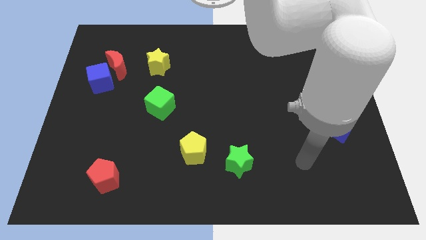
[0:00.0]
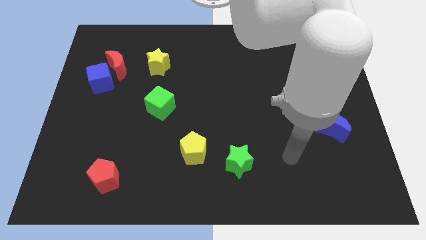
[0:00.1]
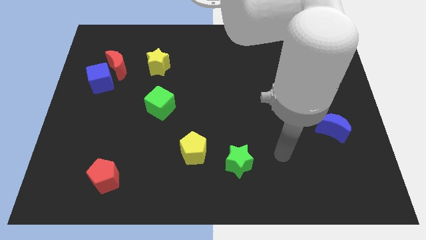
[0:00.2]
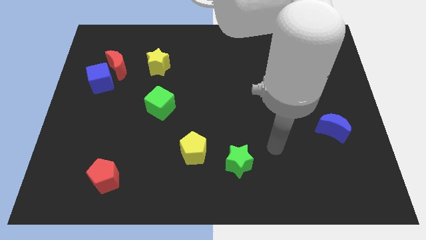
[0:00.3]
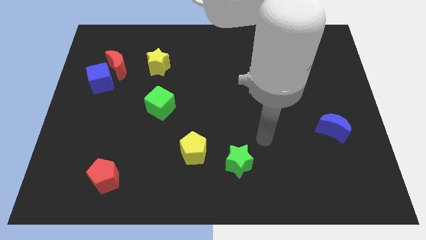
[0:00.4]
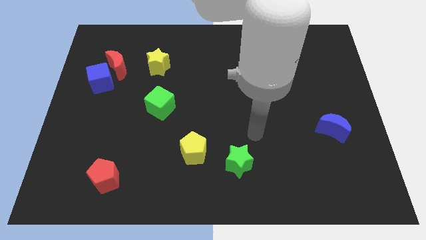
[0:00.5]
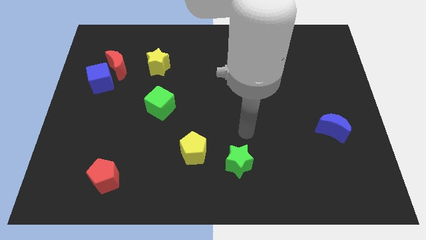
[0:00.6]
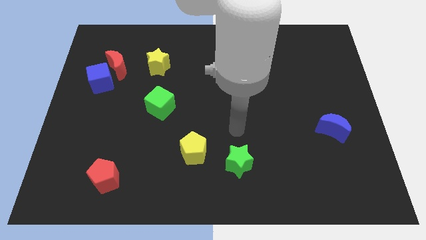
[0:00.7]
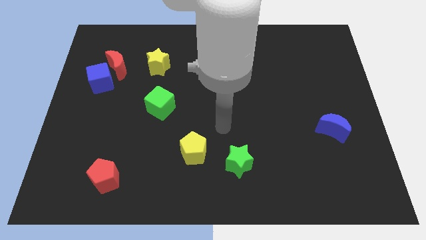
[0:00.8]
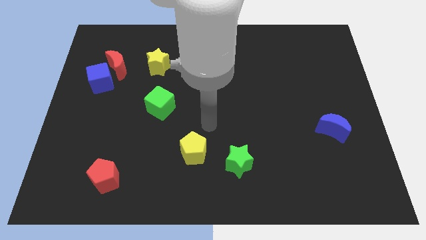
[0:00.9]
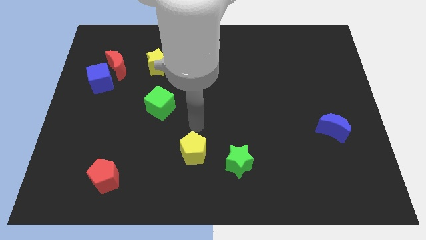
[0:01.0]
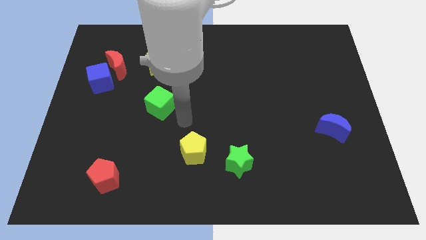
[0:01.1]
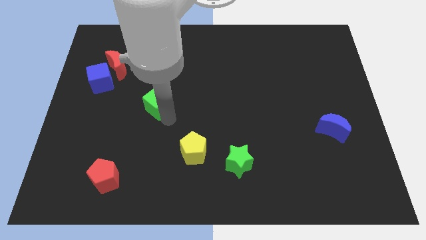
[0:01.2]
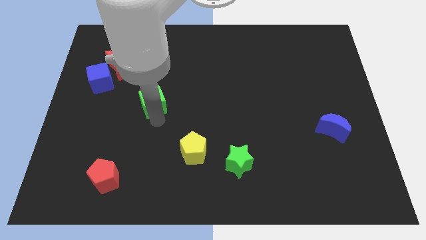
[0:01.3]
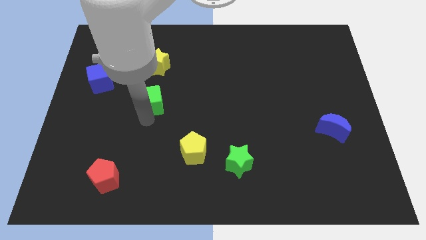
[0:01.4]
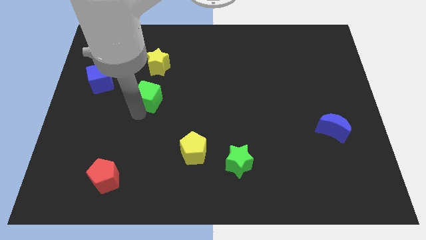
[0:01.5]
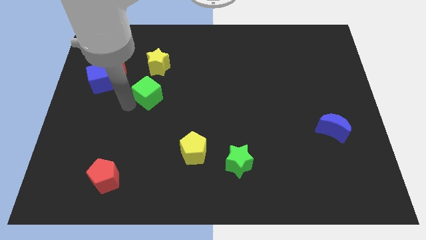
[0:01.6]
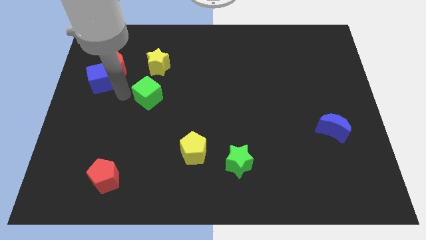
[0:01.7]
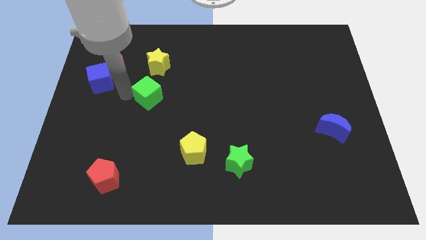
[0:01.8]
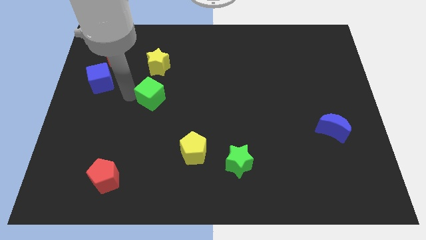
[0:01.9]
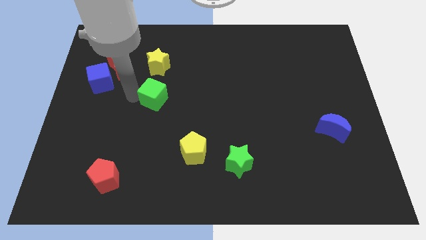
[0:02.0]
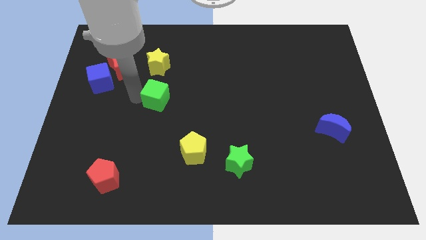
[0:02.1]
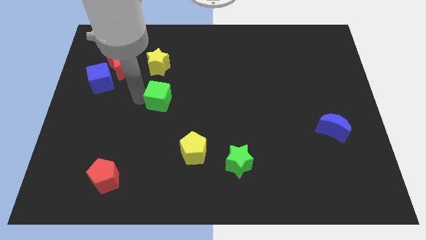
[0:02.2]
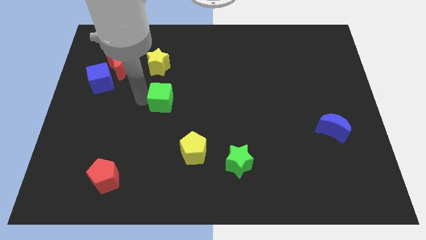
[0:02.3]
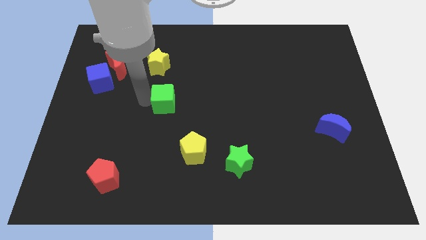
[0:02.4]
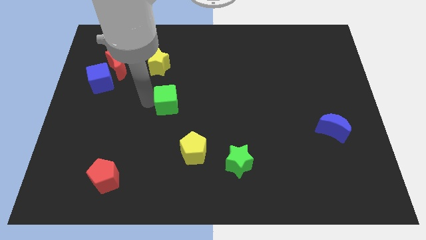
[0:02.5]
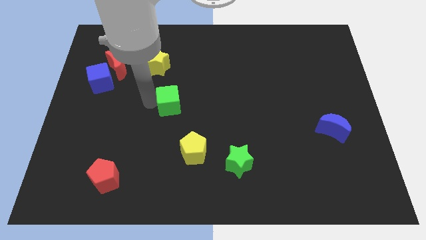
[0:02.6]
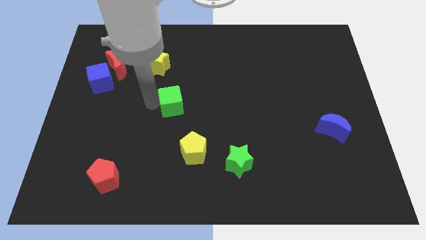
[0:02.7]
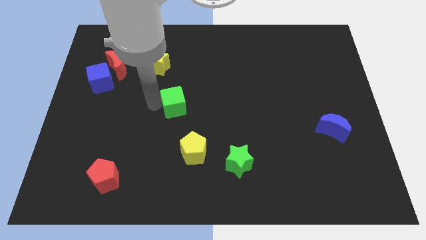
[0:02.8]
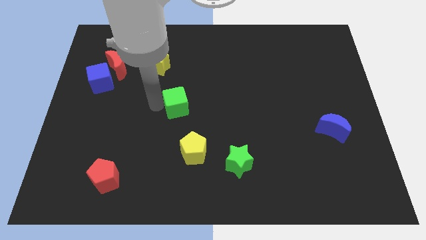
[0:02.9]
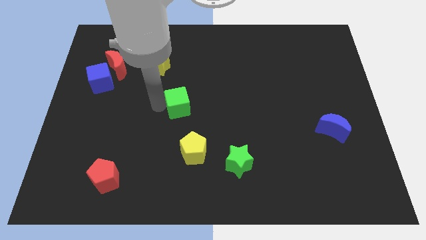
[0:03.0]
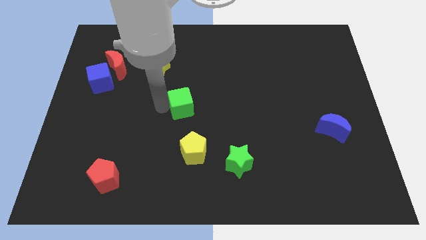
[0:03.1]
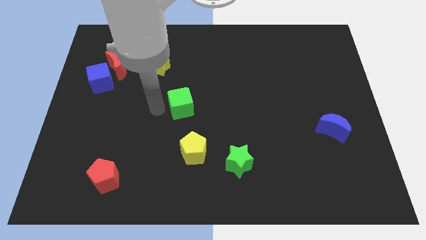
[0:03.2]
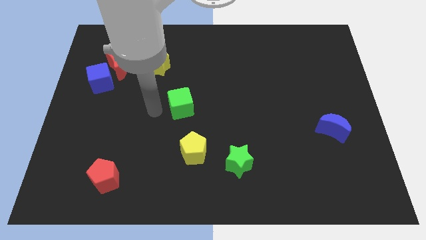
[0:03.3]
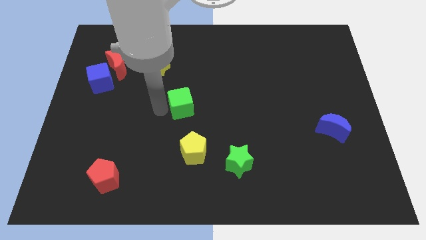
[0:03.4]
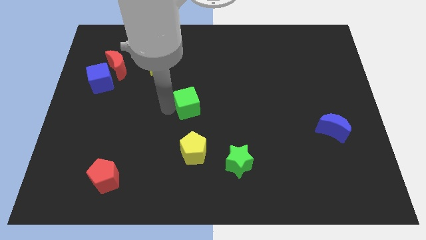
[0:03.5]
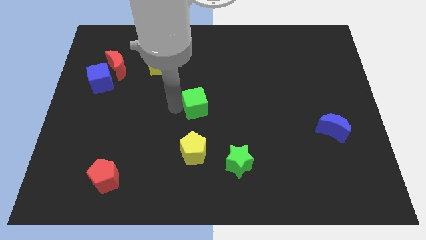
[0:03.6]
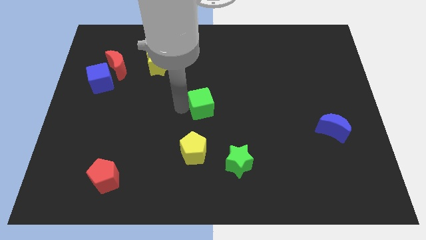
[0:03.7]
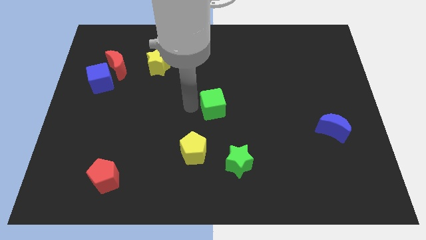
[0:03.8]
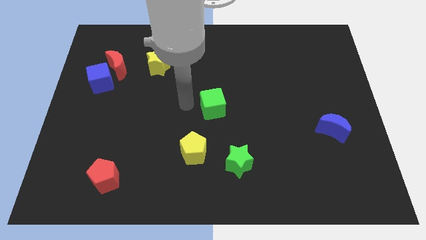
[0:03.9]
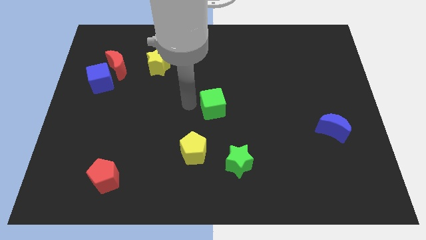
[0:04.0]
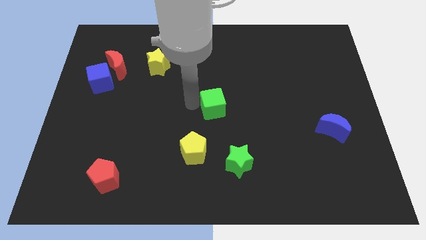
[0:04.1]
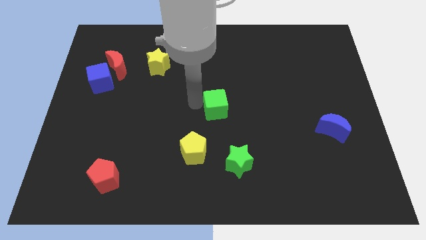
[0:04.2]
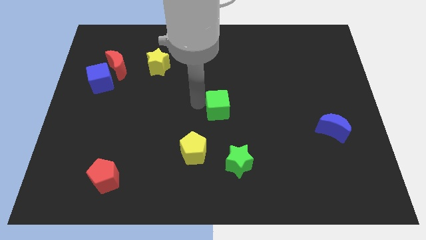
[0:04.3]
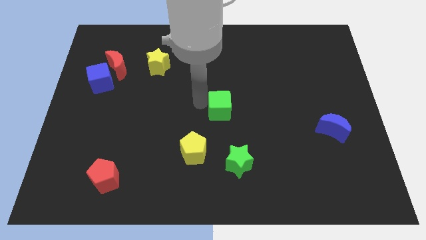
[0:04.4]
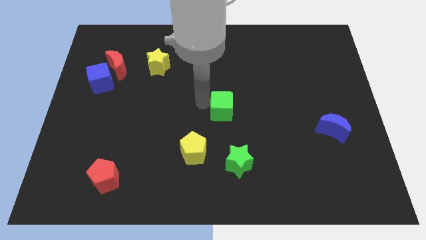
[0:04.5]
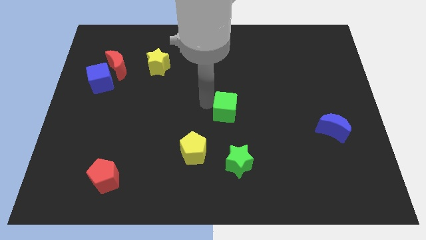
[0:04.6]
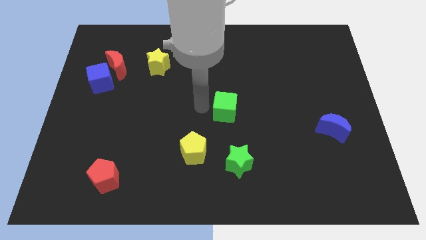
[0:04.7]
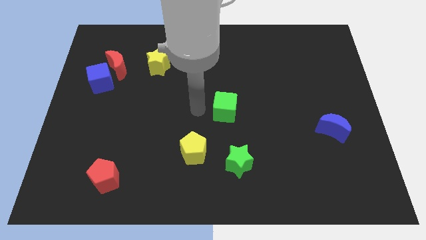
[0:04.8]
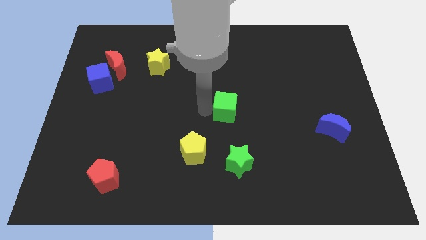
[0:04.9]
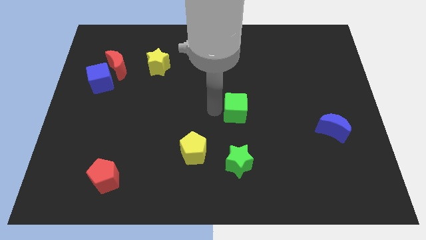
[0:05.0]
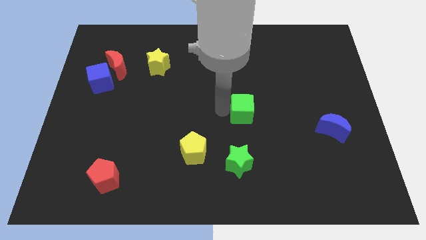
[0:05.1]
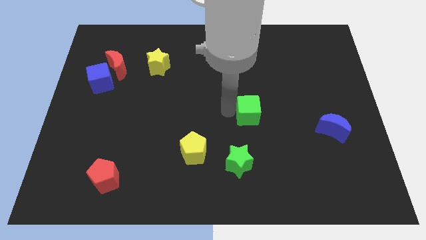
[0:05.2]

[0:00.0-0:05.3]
move the green cube to the right

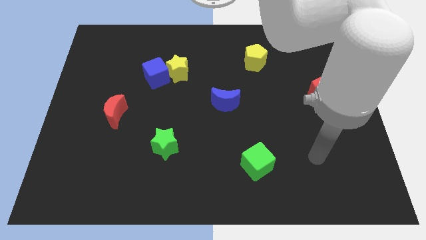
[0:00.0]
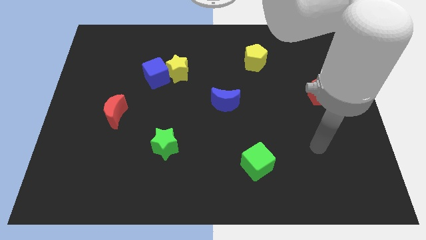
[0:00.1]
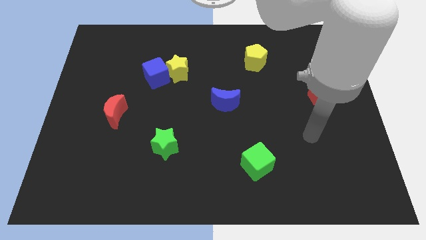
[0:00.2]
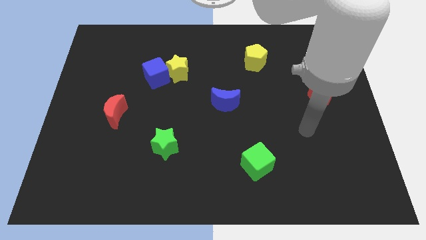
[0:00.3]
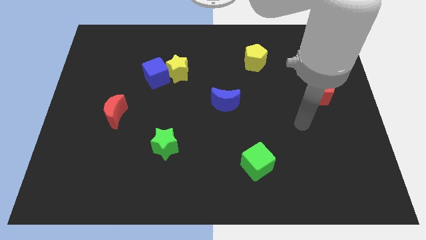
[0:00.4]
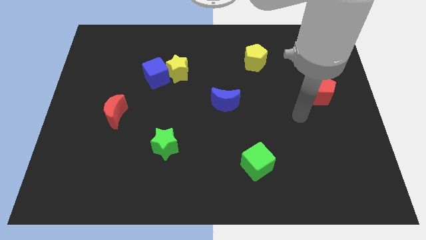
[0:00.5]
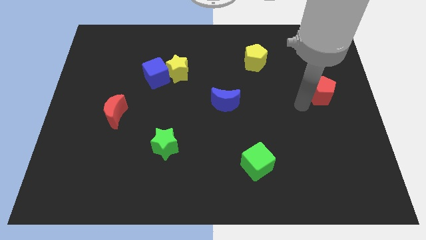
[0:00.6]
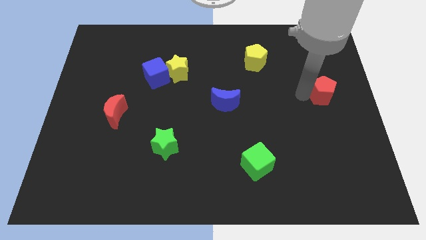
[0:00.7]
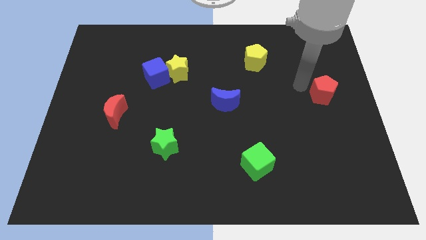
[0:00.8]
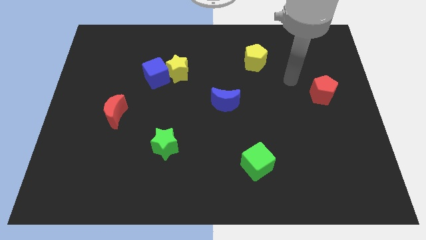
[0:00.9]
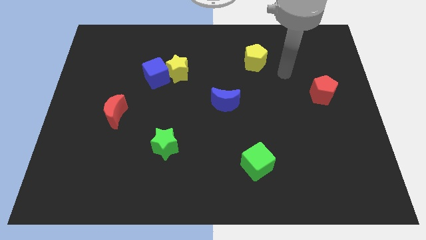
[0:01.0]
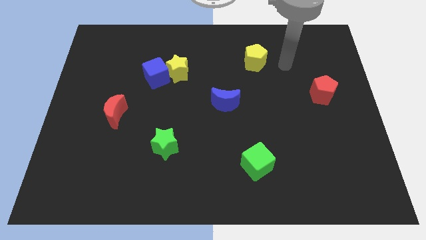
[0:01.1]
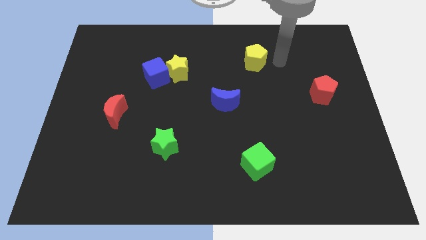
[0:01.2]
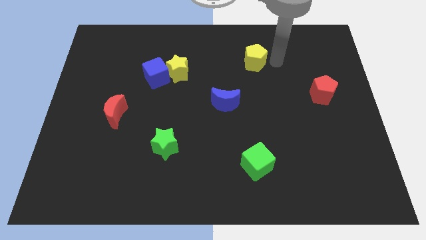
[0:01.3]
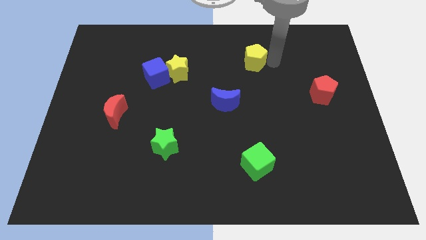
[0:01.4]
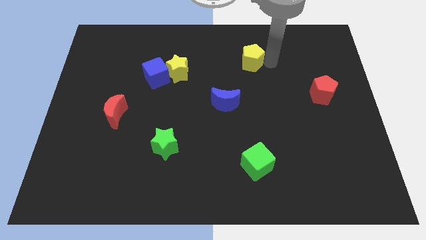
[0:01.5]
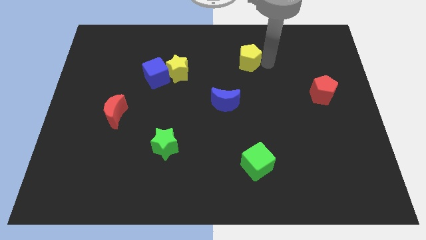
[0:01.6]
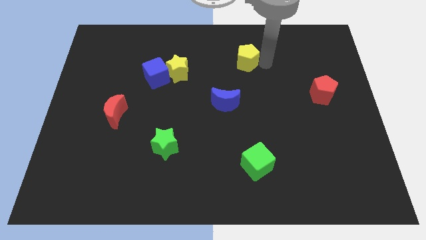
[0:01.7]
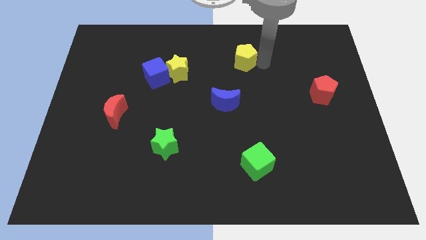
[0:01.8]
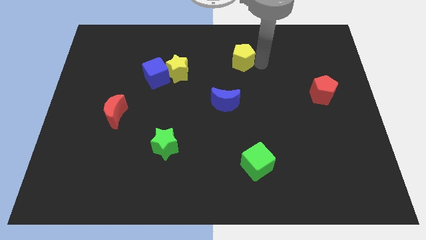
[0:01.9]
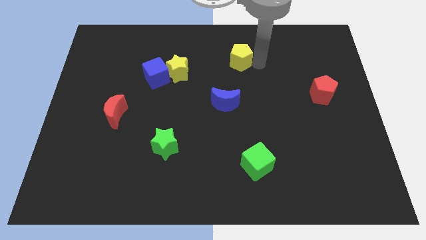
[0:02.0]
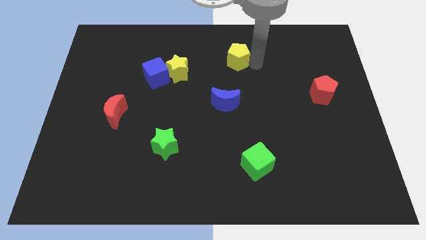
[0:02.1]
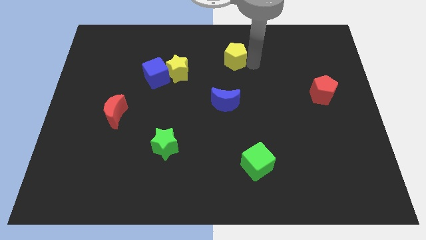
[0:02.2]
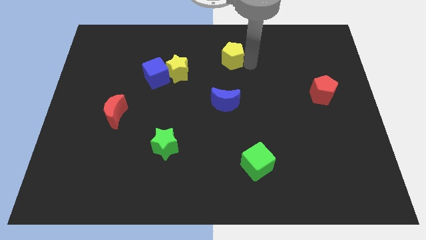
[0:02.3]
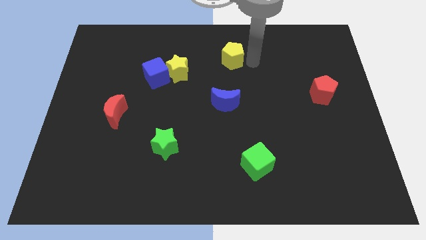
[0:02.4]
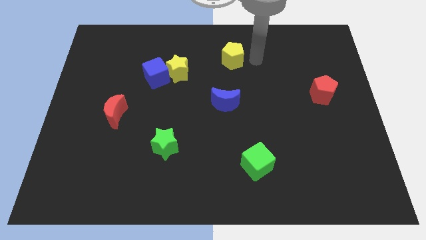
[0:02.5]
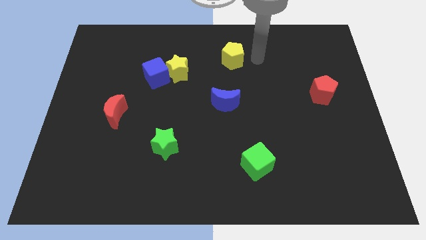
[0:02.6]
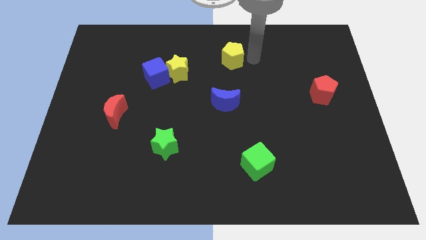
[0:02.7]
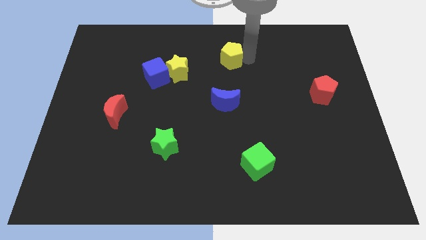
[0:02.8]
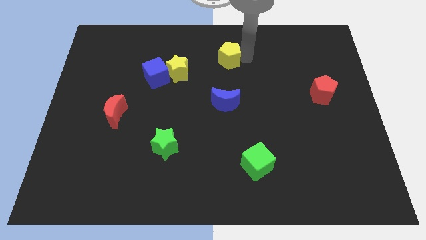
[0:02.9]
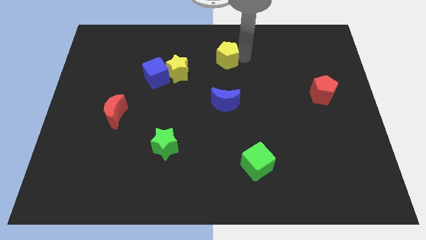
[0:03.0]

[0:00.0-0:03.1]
push the yellow pentagon slightly to the left
